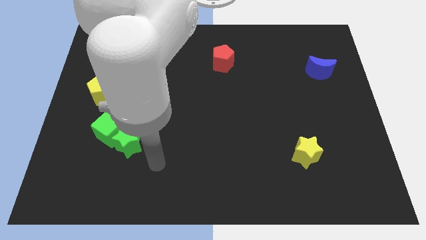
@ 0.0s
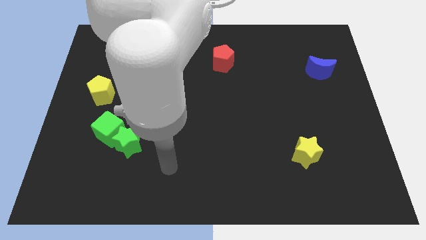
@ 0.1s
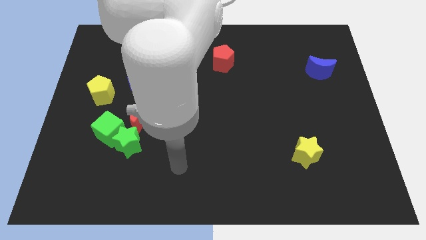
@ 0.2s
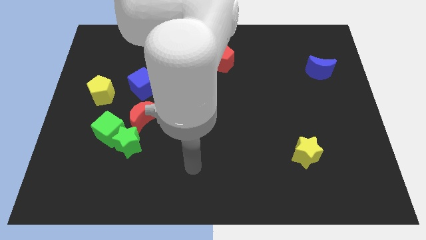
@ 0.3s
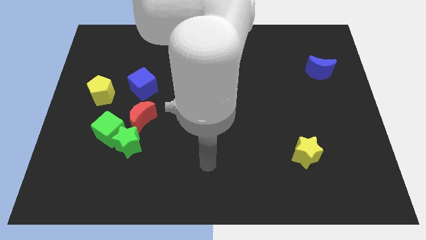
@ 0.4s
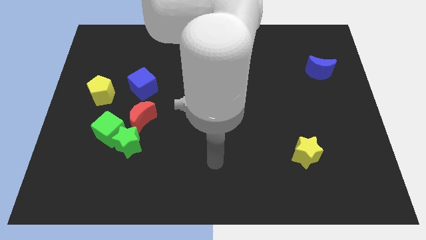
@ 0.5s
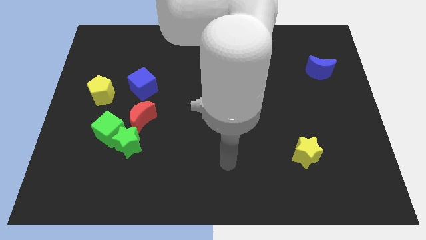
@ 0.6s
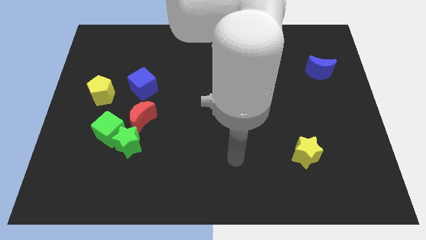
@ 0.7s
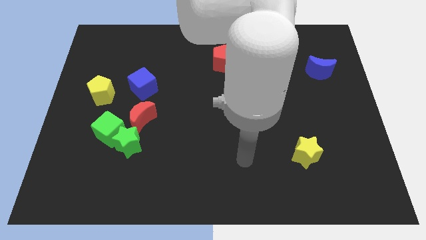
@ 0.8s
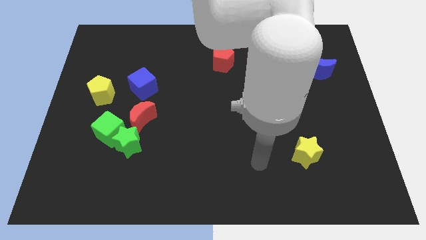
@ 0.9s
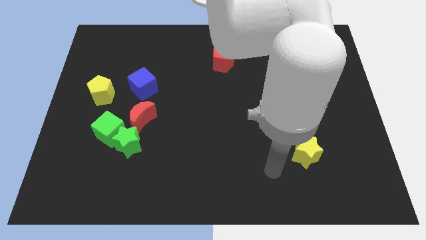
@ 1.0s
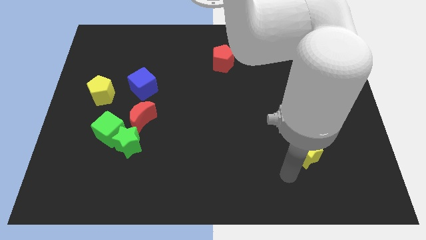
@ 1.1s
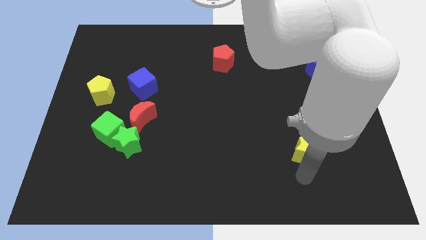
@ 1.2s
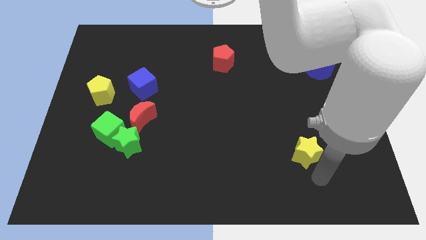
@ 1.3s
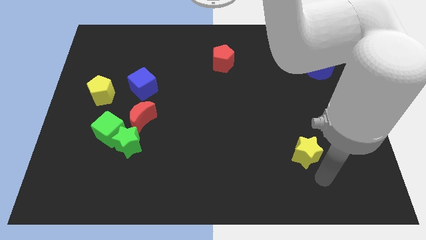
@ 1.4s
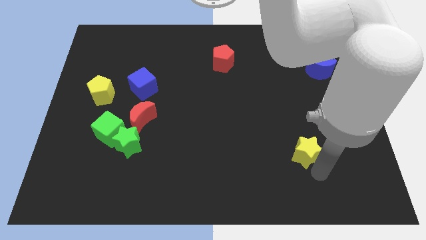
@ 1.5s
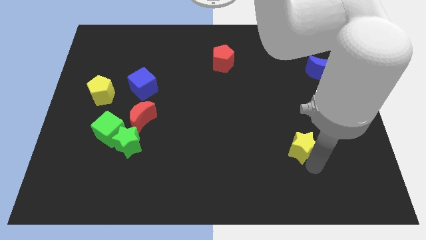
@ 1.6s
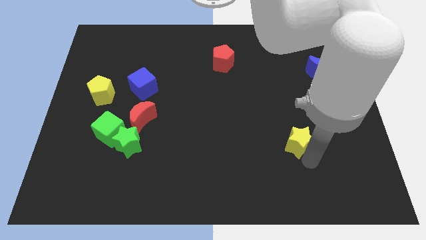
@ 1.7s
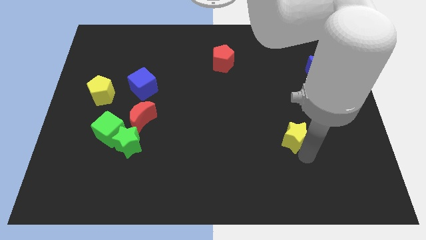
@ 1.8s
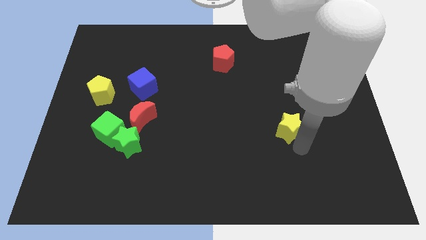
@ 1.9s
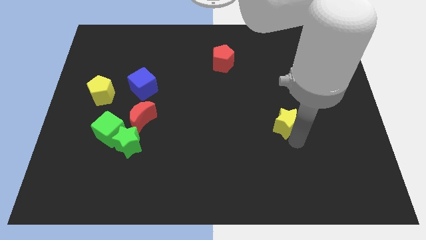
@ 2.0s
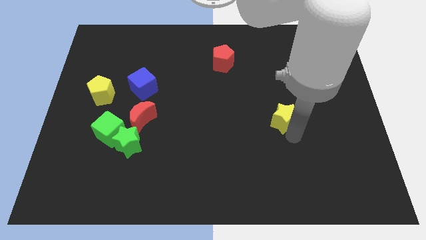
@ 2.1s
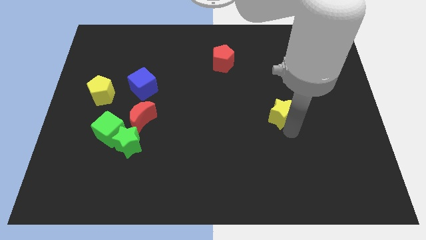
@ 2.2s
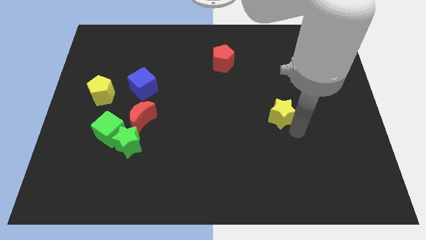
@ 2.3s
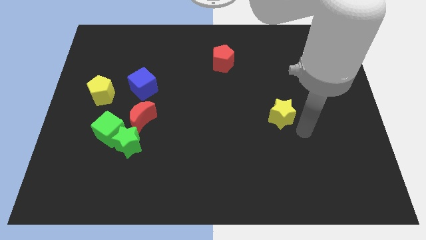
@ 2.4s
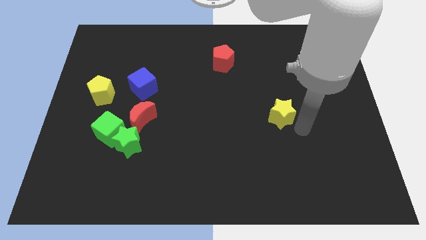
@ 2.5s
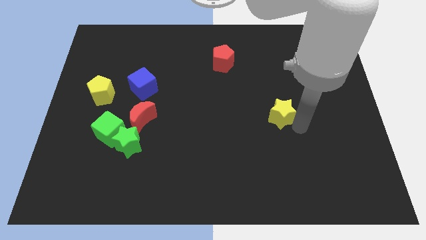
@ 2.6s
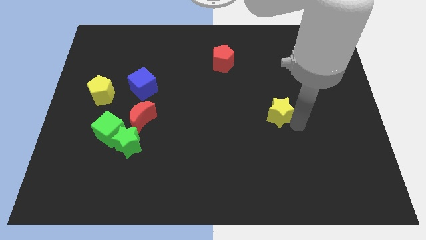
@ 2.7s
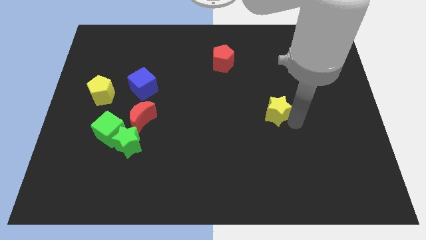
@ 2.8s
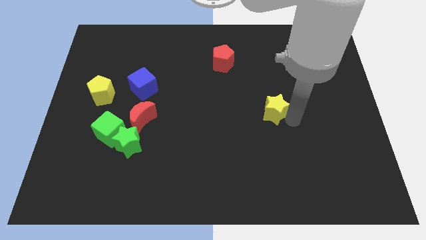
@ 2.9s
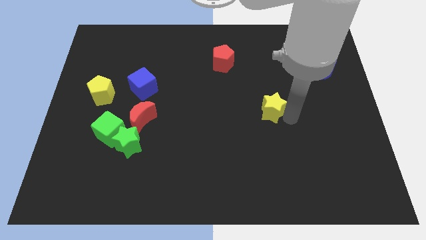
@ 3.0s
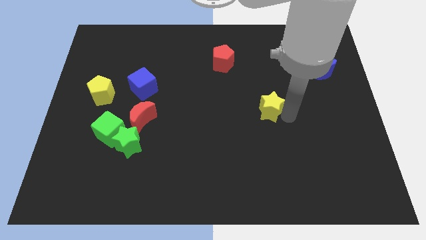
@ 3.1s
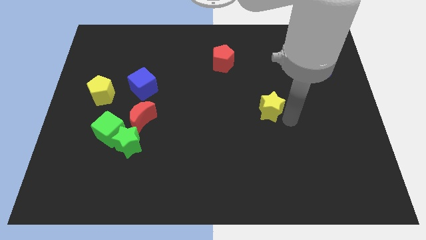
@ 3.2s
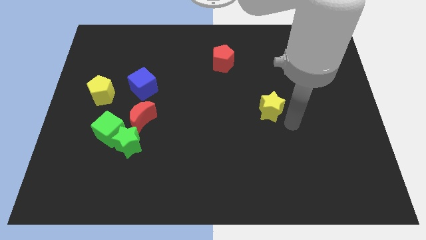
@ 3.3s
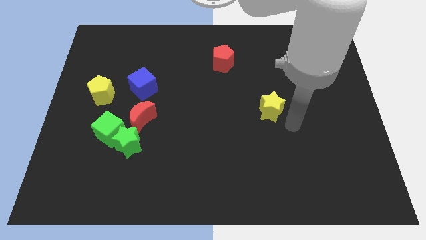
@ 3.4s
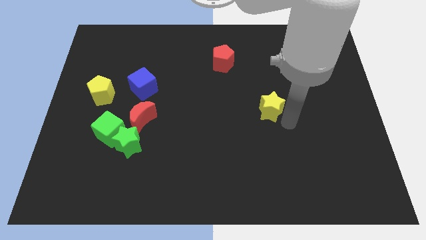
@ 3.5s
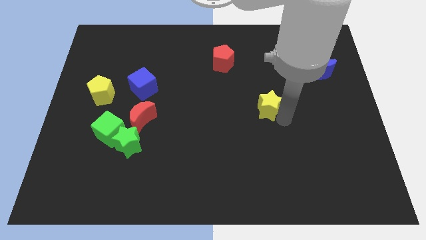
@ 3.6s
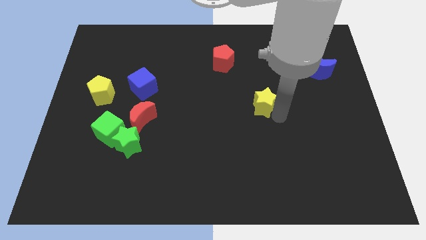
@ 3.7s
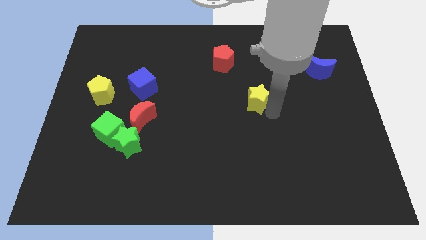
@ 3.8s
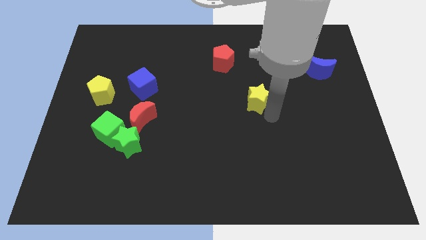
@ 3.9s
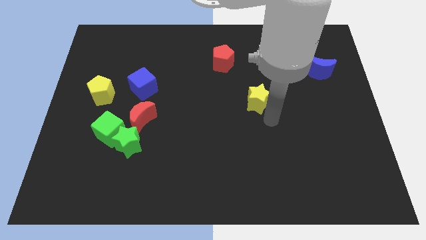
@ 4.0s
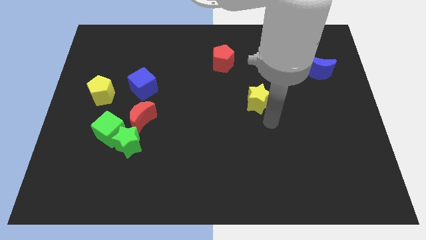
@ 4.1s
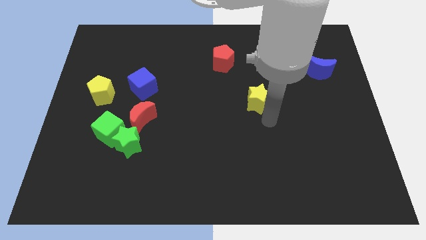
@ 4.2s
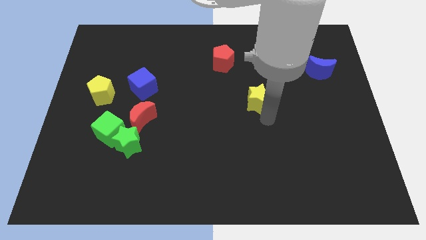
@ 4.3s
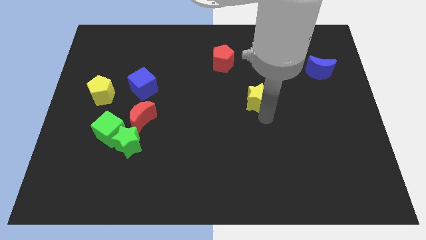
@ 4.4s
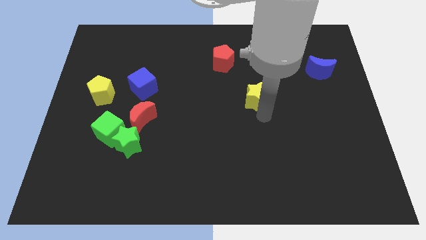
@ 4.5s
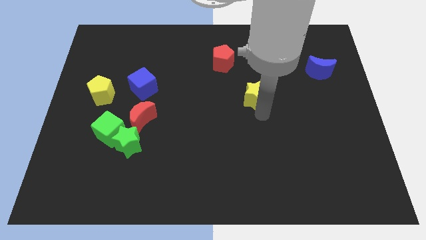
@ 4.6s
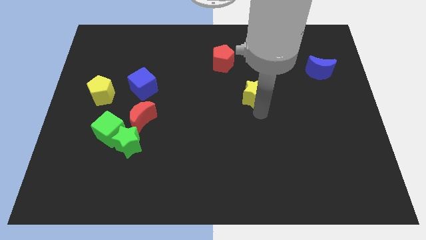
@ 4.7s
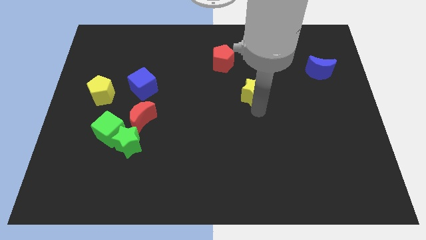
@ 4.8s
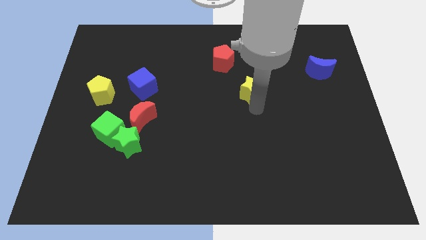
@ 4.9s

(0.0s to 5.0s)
put the yellow star diagonally down and to the right of the red pentagon

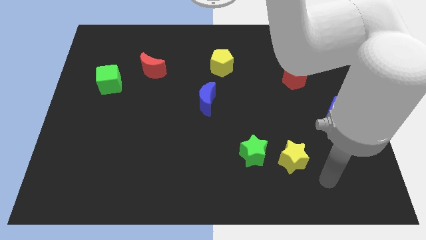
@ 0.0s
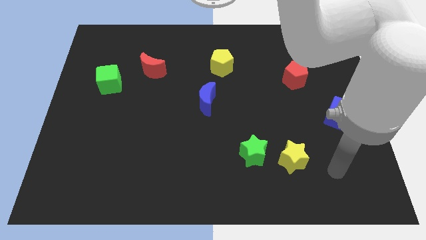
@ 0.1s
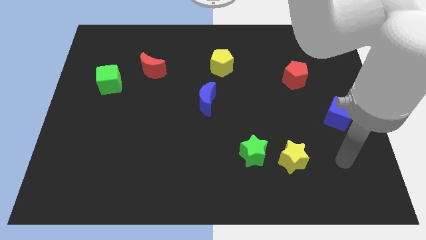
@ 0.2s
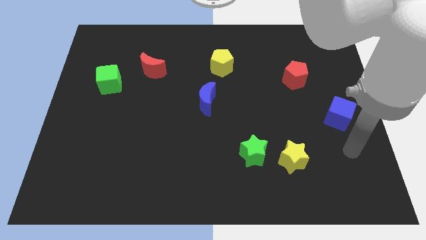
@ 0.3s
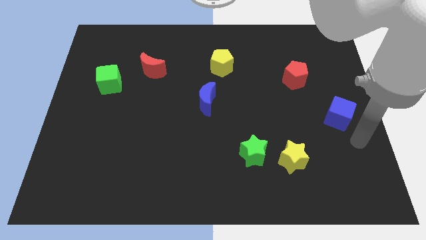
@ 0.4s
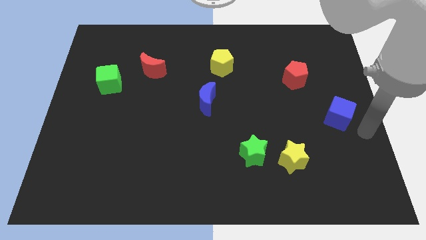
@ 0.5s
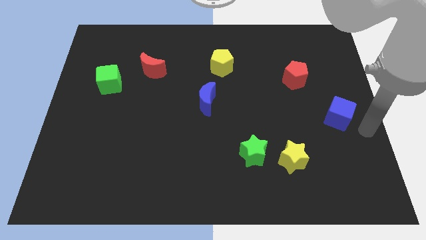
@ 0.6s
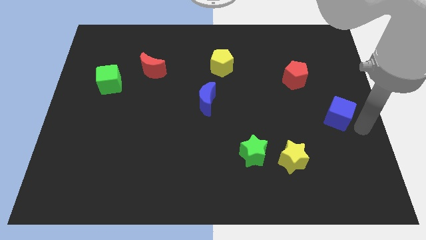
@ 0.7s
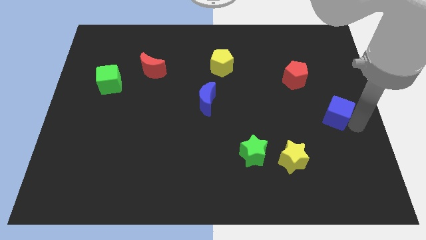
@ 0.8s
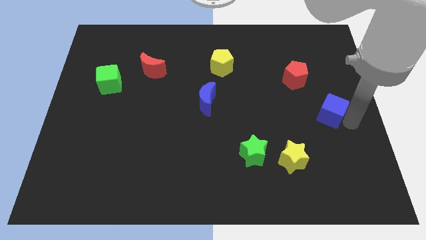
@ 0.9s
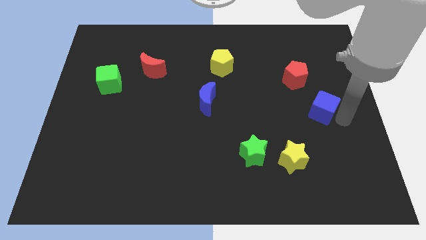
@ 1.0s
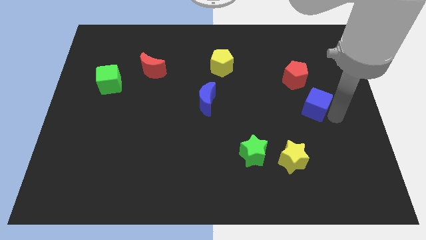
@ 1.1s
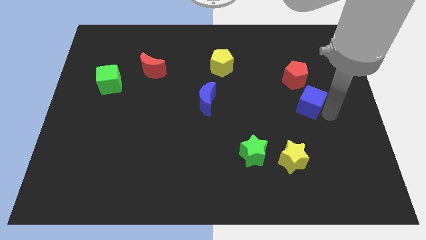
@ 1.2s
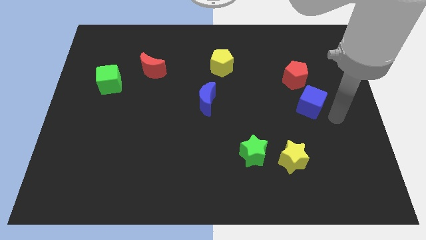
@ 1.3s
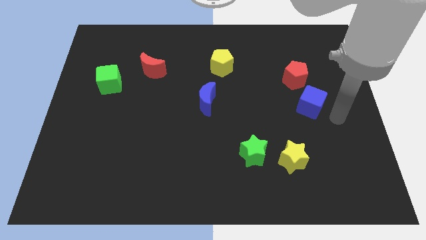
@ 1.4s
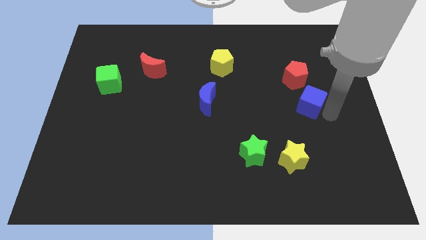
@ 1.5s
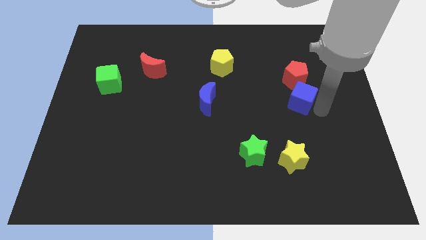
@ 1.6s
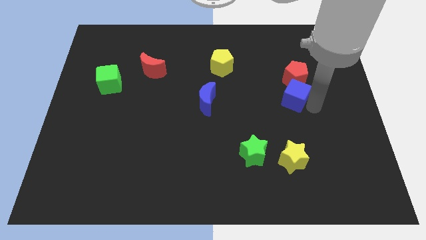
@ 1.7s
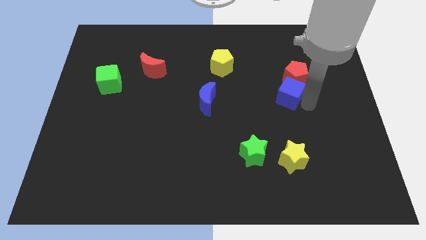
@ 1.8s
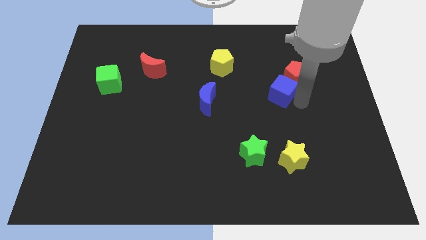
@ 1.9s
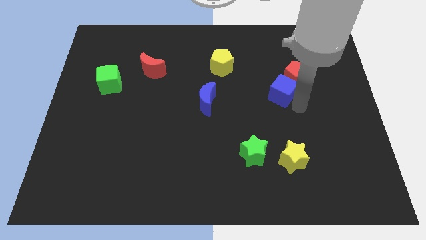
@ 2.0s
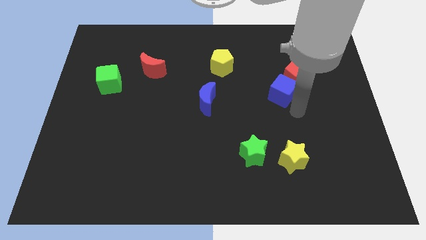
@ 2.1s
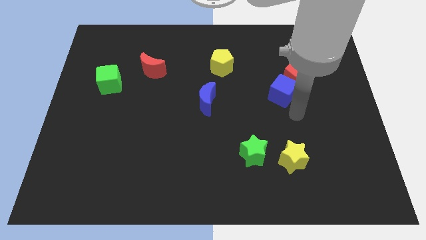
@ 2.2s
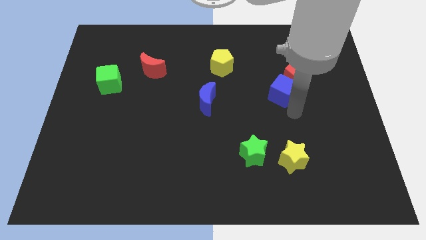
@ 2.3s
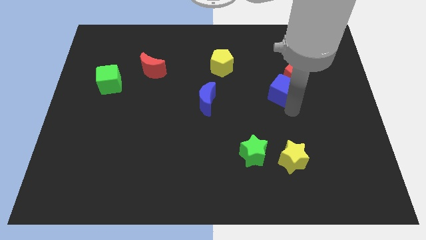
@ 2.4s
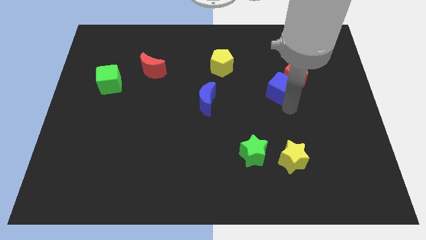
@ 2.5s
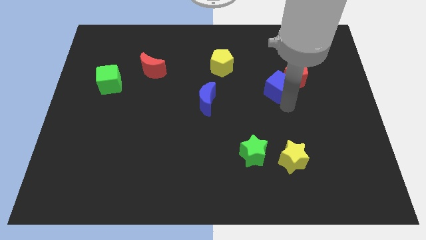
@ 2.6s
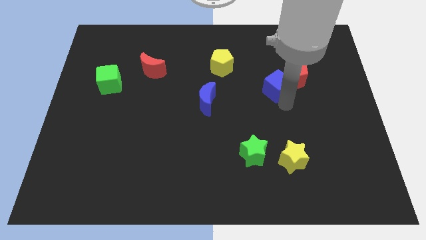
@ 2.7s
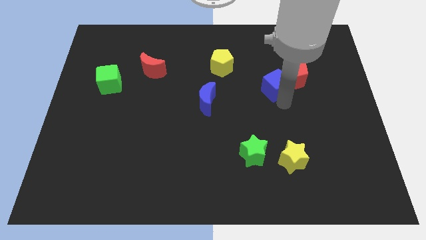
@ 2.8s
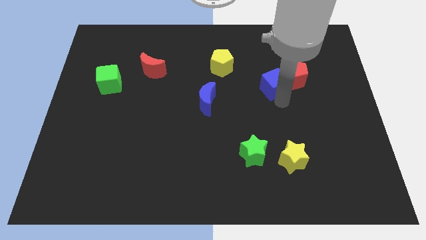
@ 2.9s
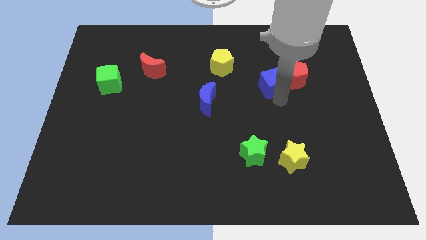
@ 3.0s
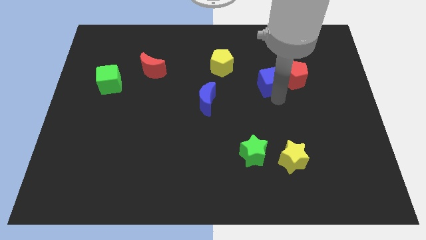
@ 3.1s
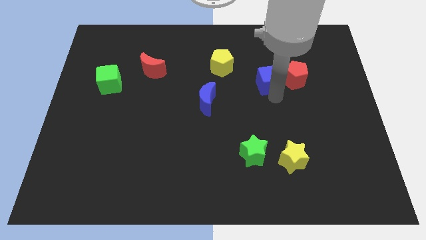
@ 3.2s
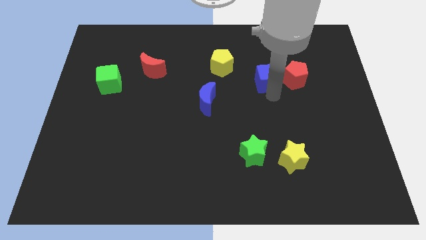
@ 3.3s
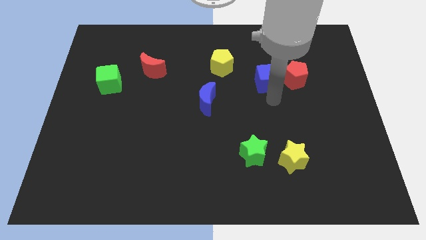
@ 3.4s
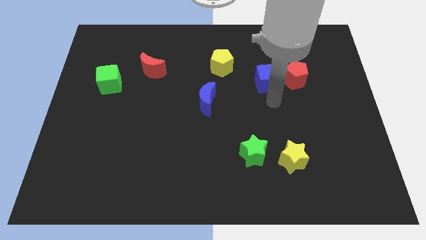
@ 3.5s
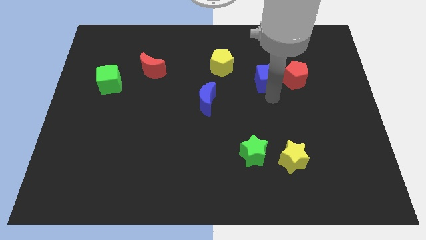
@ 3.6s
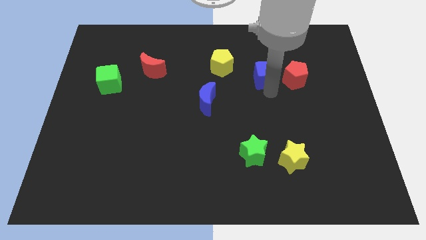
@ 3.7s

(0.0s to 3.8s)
move the blue cube right of the yellow pentagon
